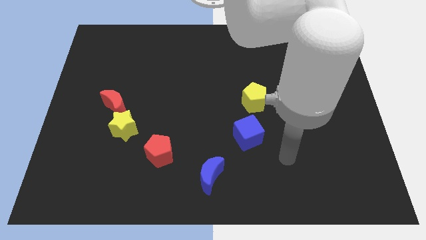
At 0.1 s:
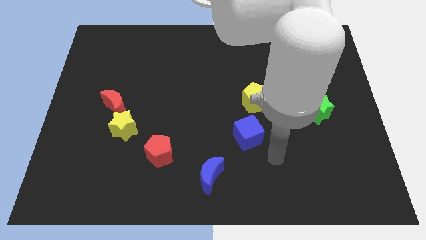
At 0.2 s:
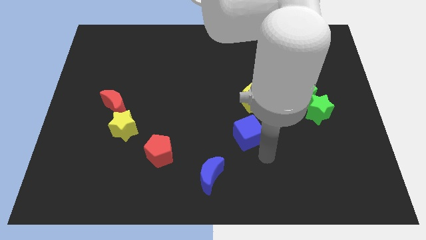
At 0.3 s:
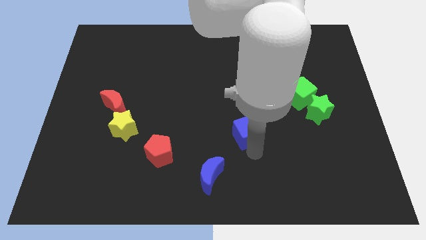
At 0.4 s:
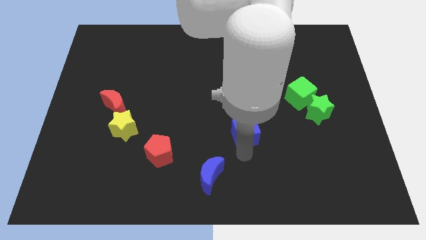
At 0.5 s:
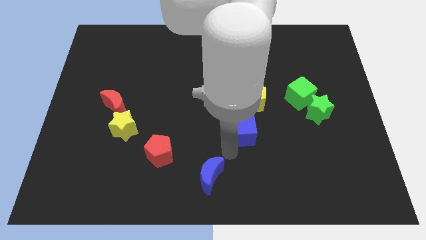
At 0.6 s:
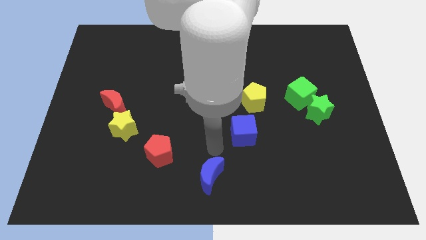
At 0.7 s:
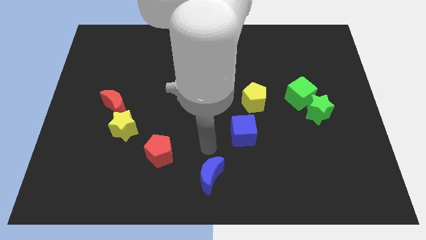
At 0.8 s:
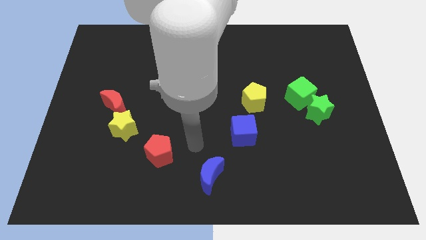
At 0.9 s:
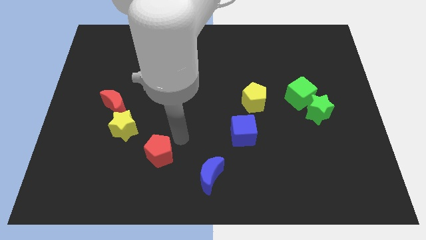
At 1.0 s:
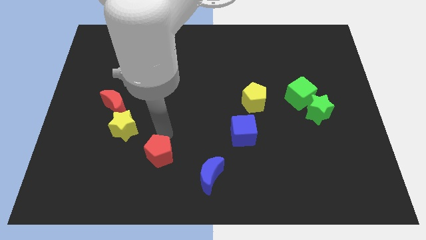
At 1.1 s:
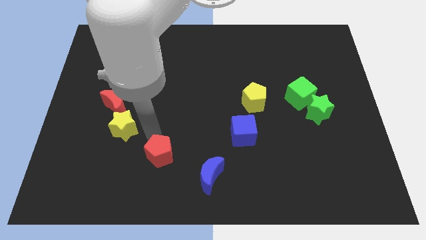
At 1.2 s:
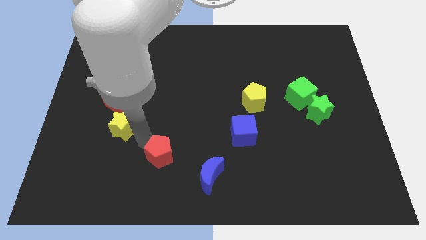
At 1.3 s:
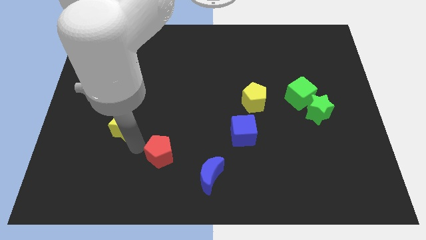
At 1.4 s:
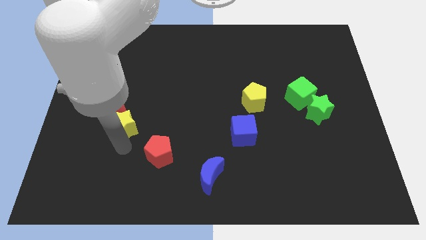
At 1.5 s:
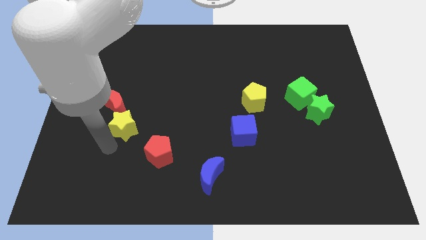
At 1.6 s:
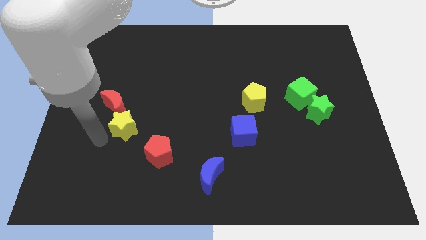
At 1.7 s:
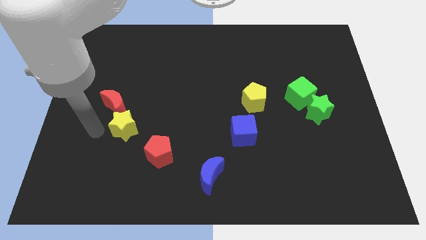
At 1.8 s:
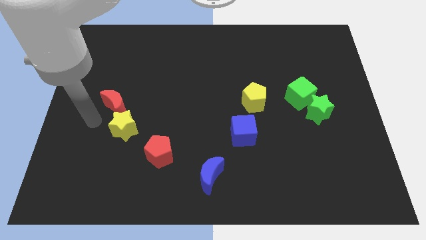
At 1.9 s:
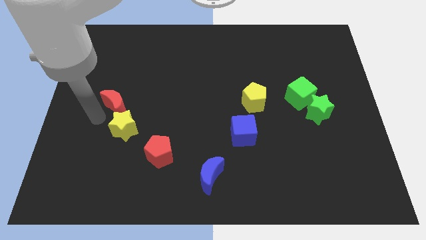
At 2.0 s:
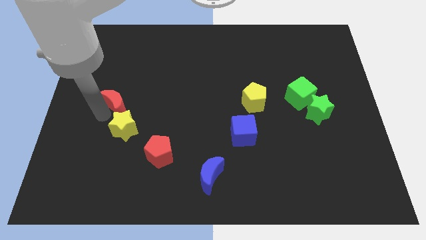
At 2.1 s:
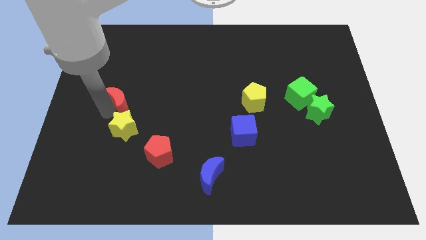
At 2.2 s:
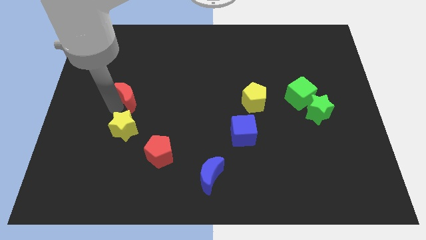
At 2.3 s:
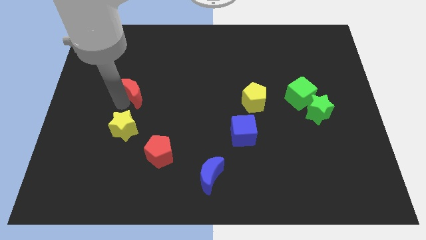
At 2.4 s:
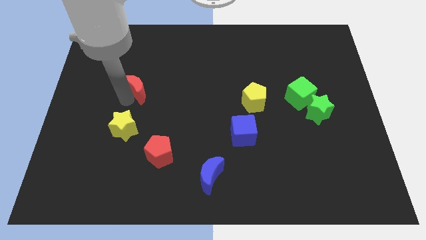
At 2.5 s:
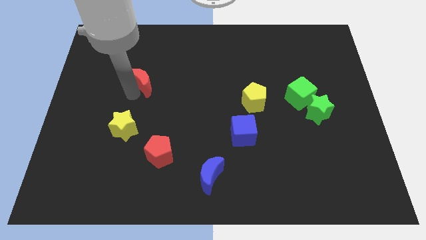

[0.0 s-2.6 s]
slide the red moon up and then to the right a little

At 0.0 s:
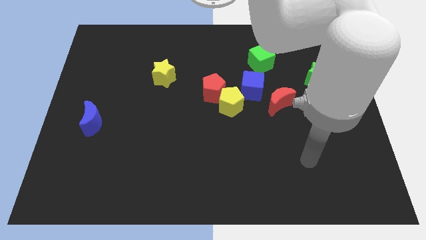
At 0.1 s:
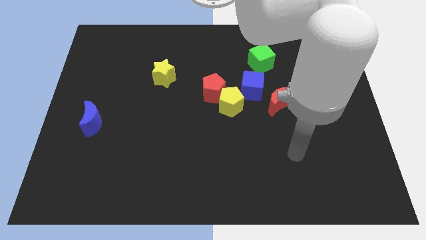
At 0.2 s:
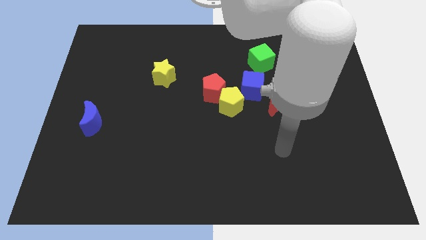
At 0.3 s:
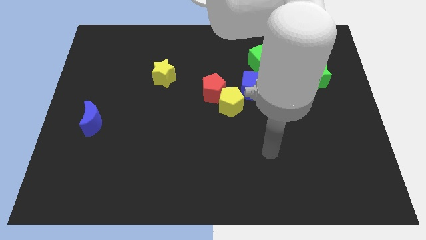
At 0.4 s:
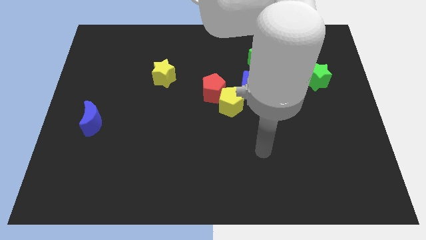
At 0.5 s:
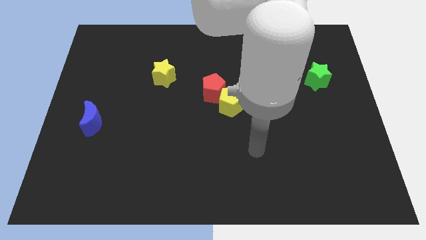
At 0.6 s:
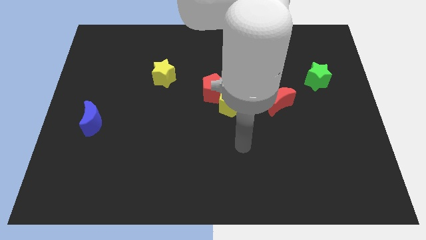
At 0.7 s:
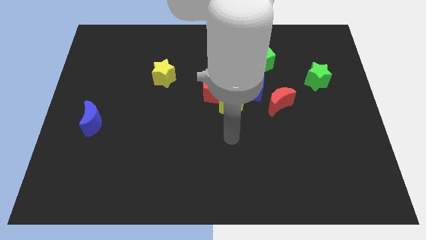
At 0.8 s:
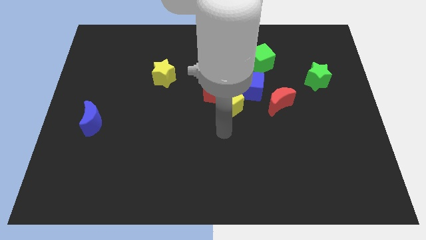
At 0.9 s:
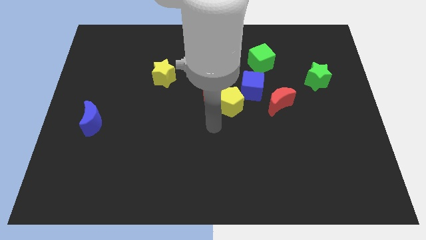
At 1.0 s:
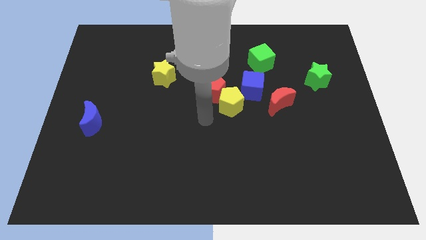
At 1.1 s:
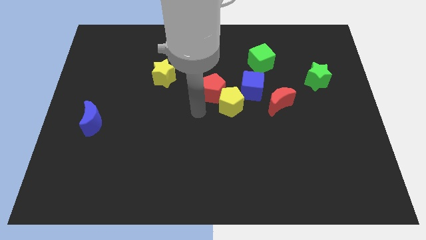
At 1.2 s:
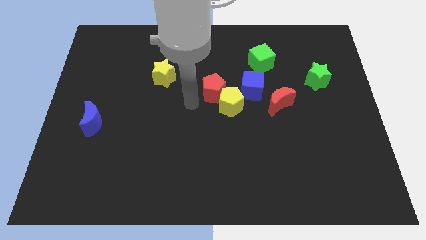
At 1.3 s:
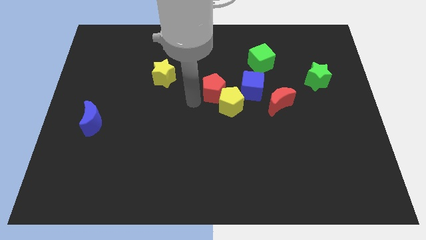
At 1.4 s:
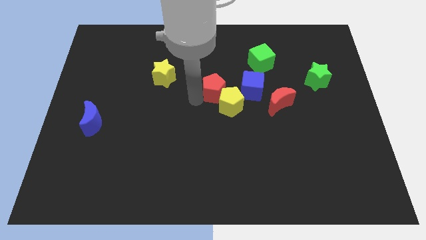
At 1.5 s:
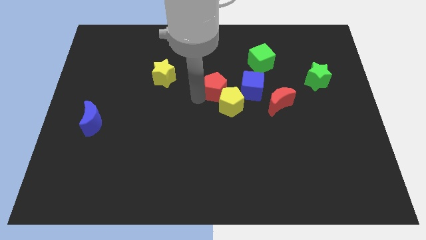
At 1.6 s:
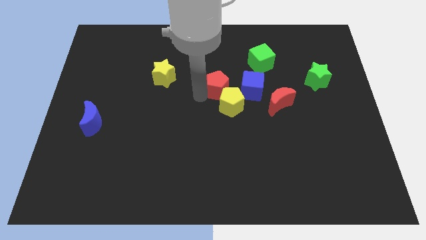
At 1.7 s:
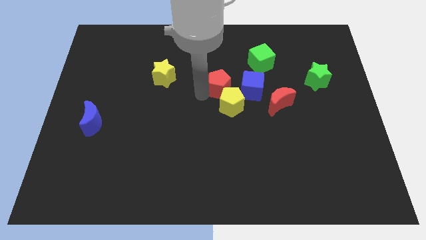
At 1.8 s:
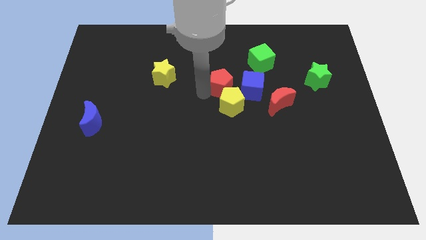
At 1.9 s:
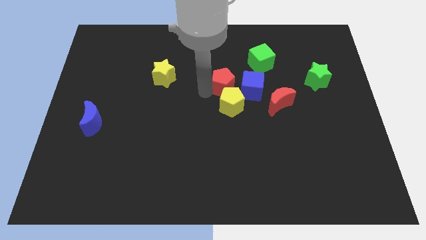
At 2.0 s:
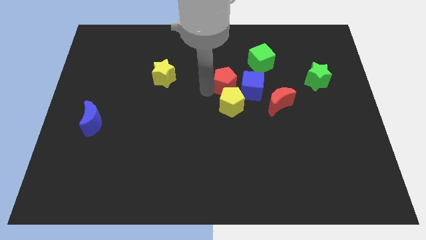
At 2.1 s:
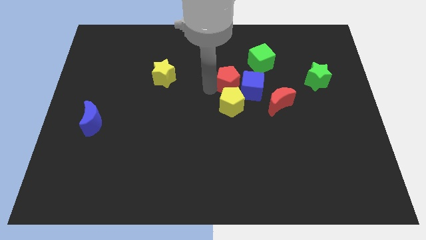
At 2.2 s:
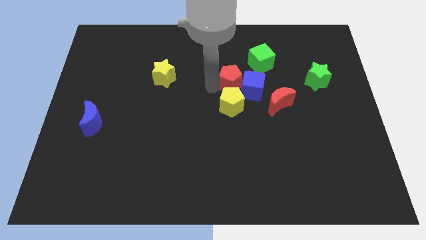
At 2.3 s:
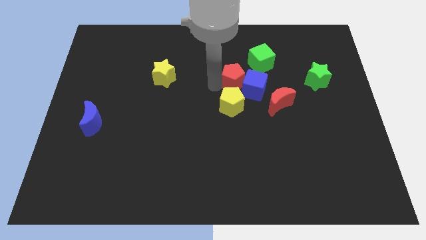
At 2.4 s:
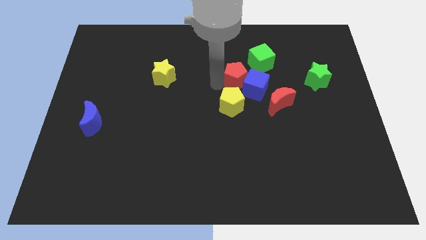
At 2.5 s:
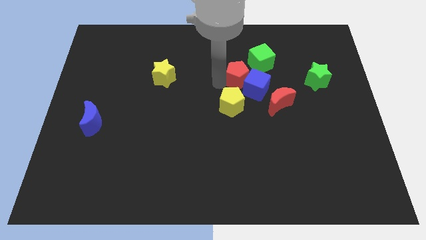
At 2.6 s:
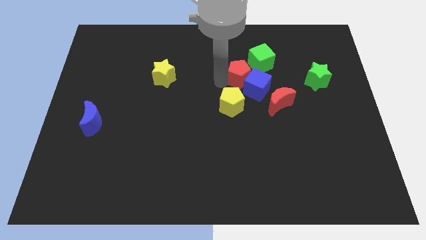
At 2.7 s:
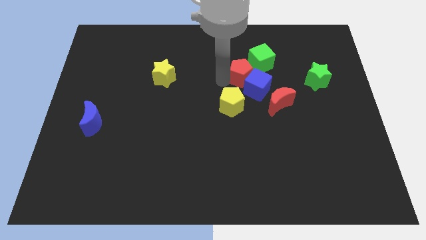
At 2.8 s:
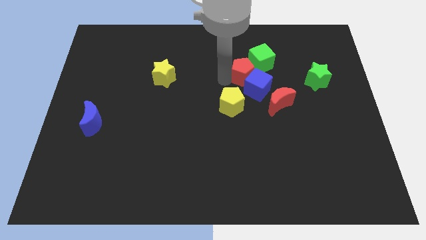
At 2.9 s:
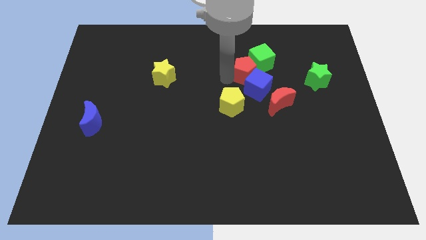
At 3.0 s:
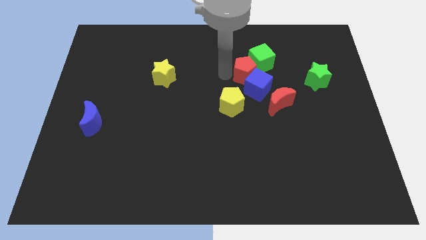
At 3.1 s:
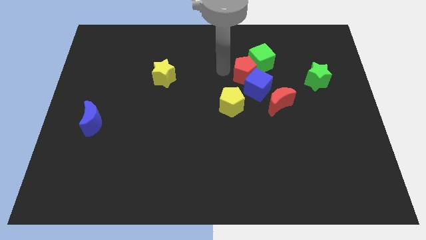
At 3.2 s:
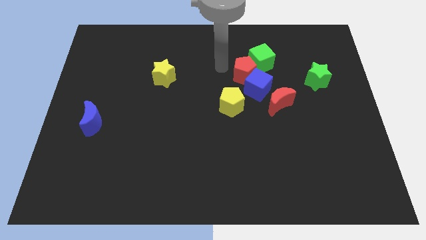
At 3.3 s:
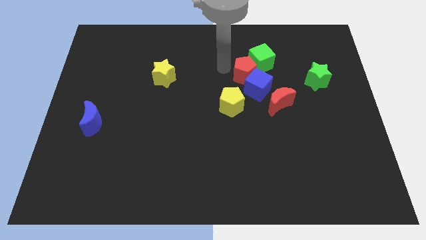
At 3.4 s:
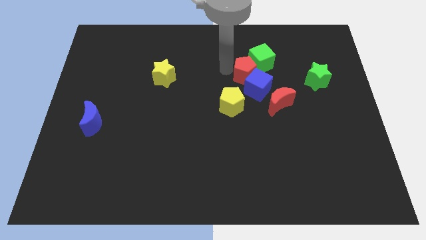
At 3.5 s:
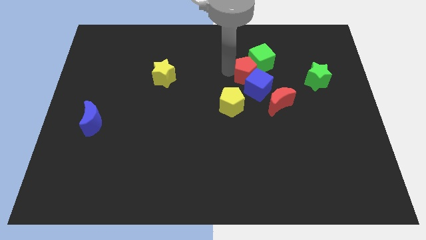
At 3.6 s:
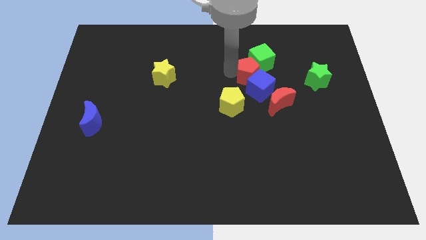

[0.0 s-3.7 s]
slide the red pentagon a little right

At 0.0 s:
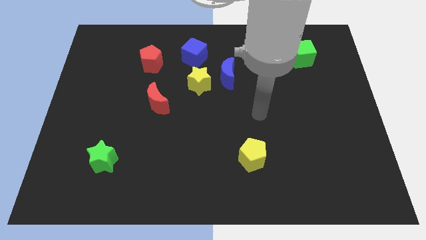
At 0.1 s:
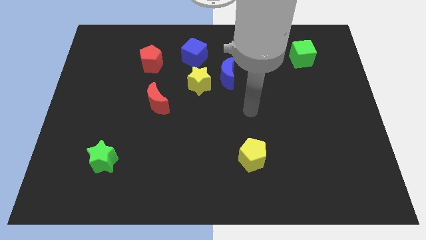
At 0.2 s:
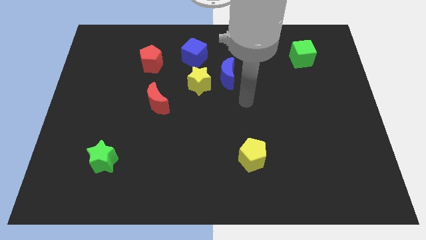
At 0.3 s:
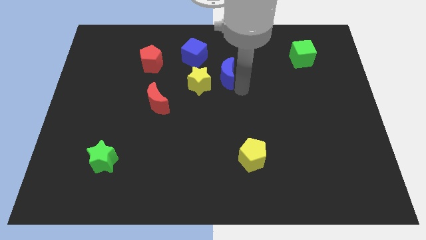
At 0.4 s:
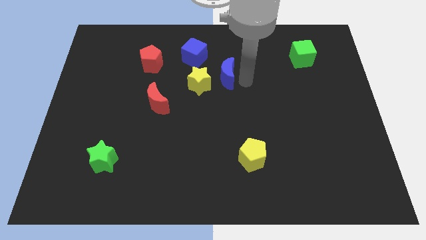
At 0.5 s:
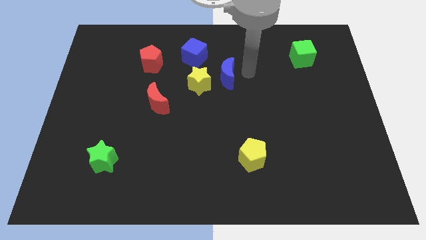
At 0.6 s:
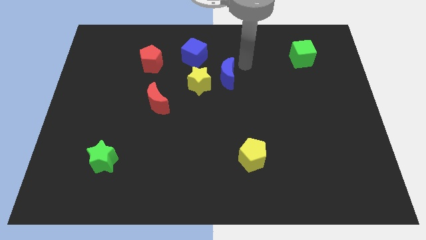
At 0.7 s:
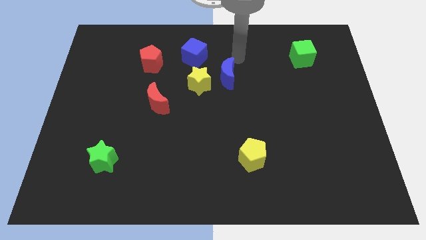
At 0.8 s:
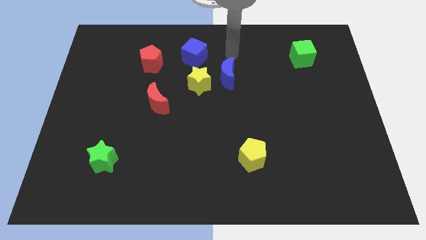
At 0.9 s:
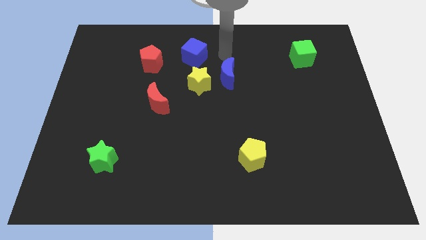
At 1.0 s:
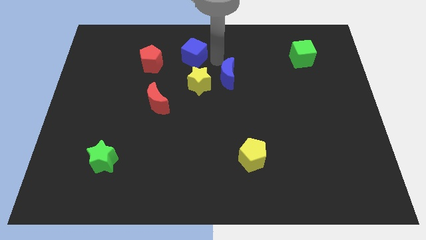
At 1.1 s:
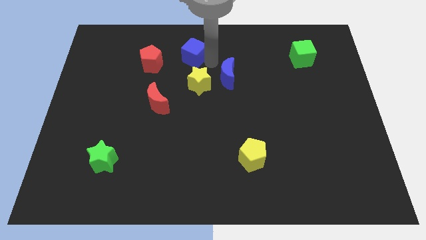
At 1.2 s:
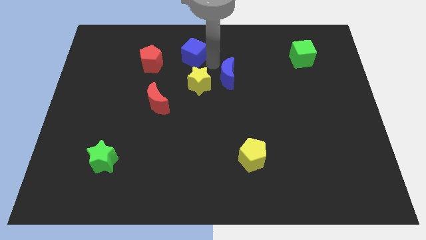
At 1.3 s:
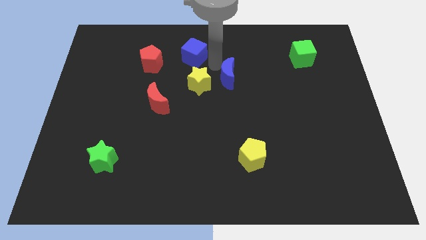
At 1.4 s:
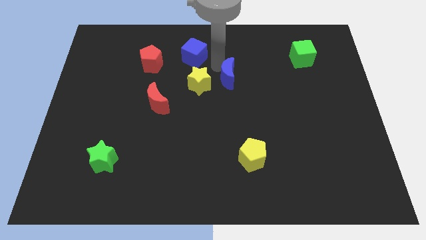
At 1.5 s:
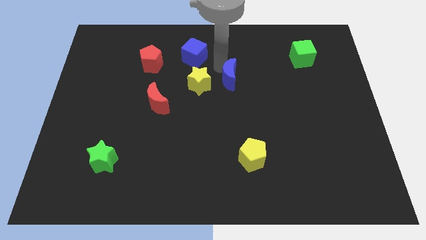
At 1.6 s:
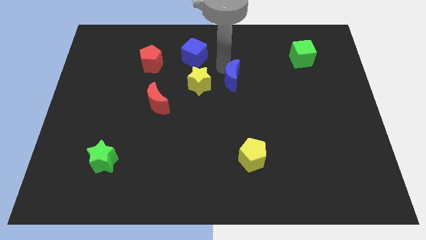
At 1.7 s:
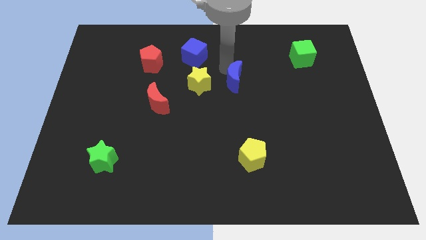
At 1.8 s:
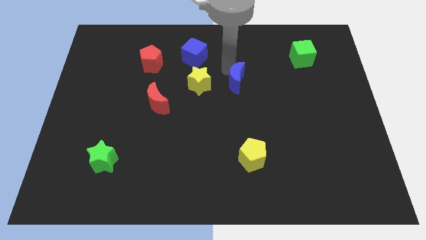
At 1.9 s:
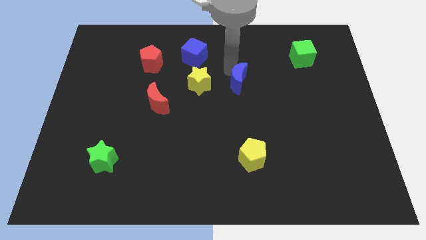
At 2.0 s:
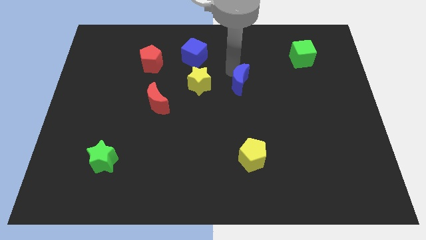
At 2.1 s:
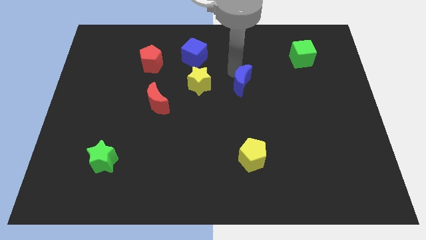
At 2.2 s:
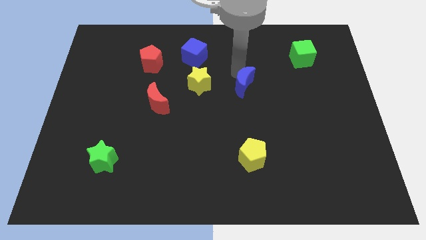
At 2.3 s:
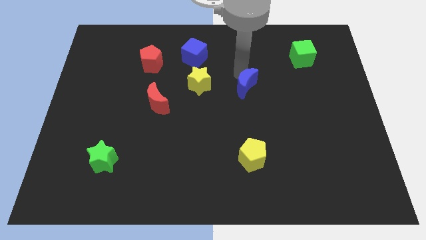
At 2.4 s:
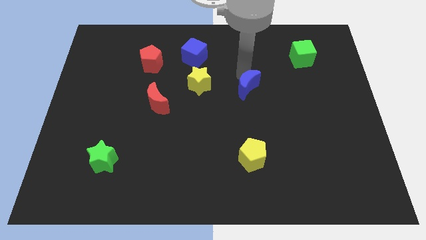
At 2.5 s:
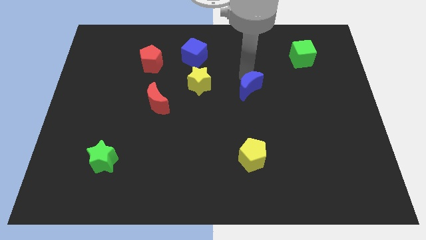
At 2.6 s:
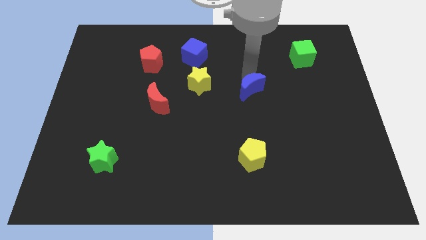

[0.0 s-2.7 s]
slightly push the blue moon diagonally downwards and right
